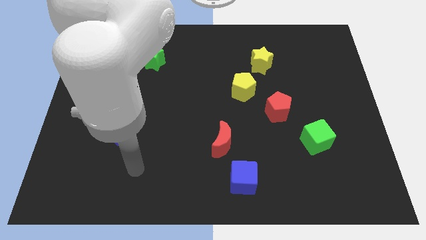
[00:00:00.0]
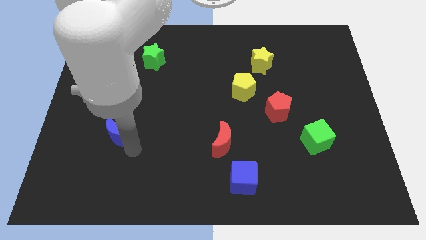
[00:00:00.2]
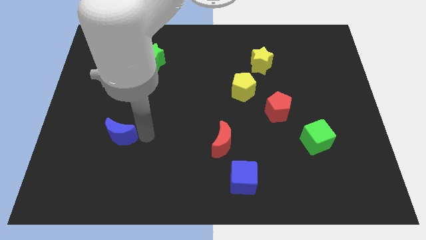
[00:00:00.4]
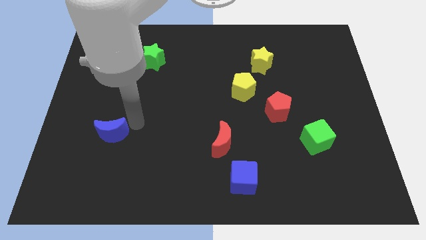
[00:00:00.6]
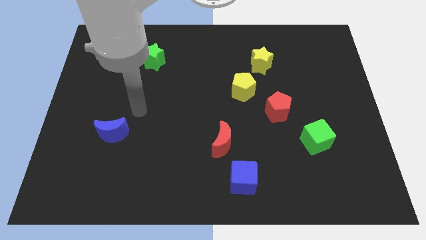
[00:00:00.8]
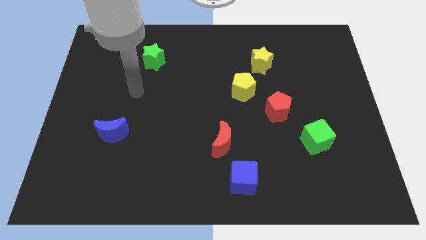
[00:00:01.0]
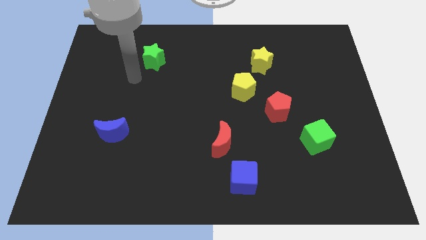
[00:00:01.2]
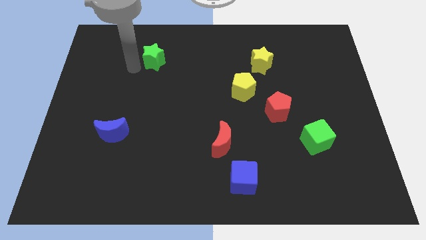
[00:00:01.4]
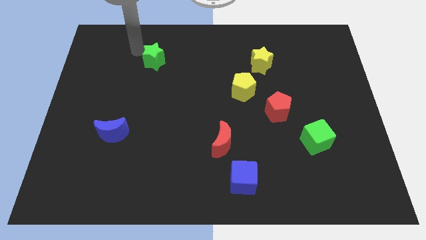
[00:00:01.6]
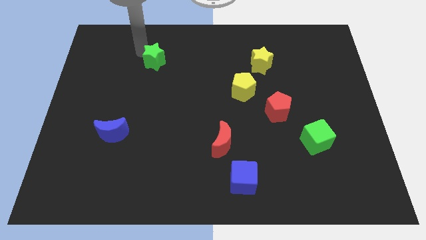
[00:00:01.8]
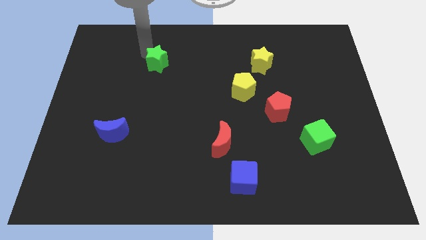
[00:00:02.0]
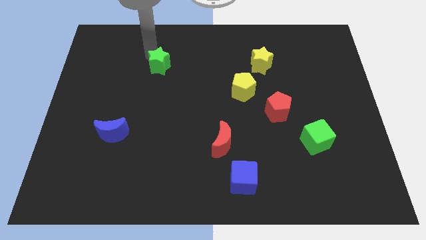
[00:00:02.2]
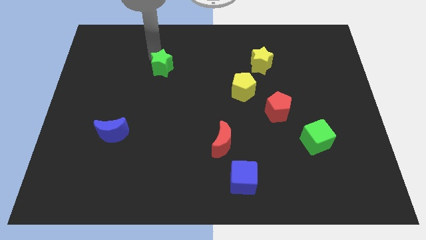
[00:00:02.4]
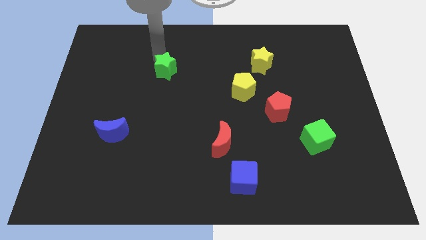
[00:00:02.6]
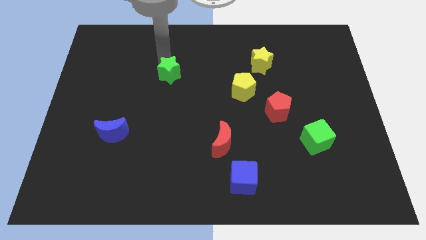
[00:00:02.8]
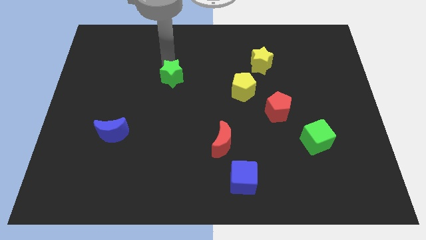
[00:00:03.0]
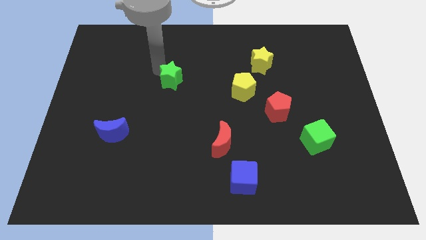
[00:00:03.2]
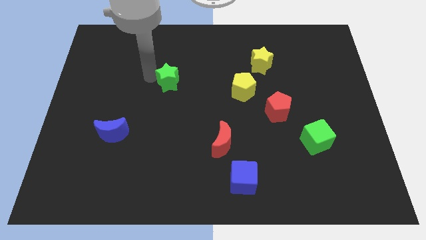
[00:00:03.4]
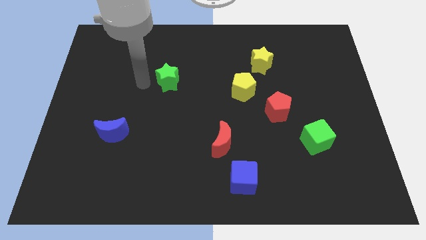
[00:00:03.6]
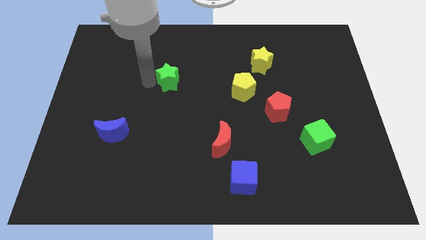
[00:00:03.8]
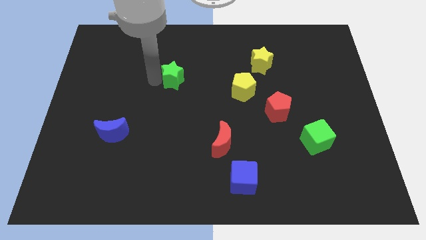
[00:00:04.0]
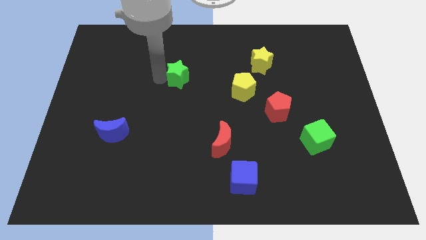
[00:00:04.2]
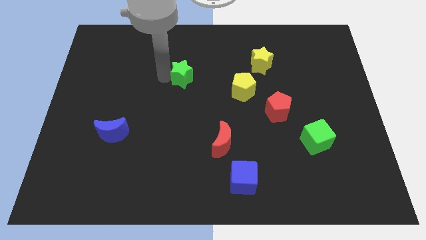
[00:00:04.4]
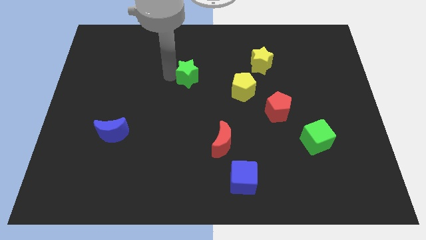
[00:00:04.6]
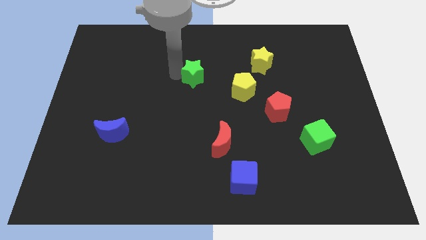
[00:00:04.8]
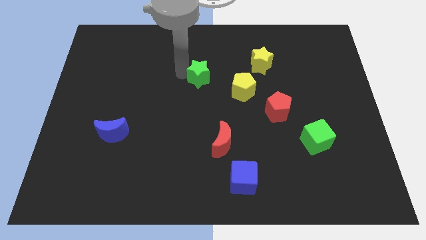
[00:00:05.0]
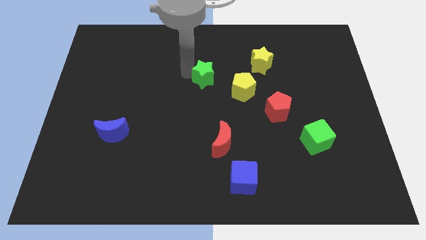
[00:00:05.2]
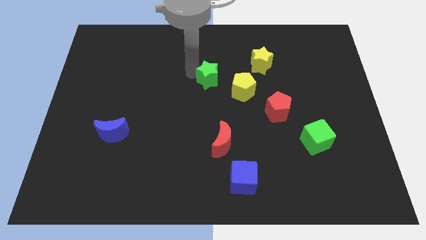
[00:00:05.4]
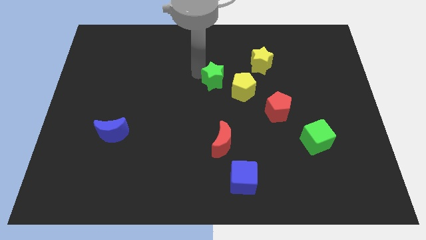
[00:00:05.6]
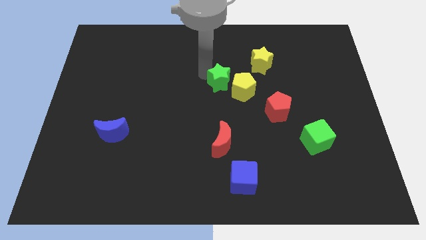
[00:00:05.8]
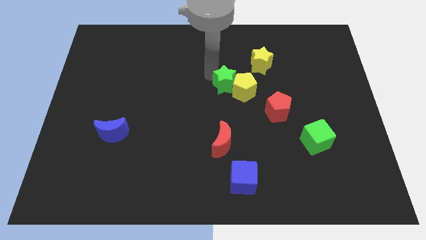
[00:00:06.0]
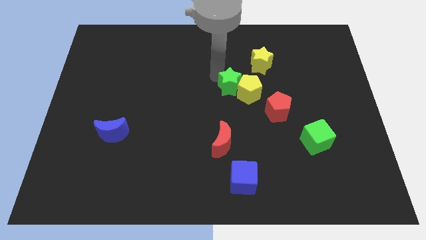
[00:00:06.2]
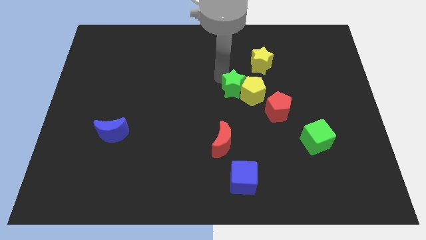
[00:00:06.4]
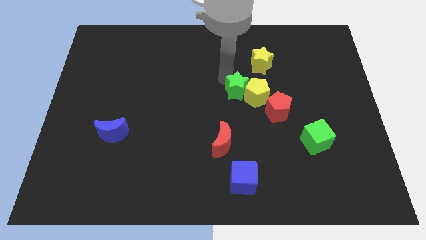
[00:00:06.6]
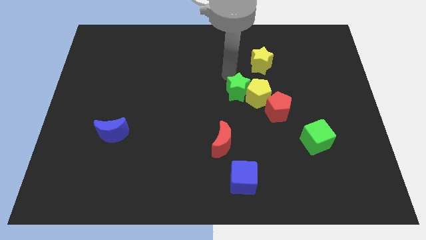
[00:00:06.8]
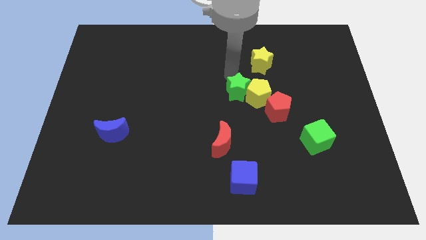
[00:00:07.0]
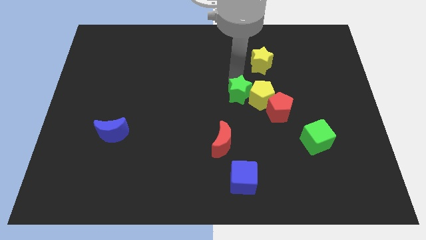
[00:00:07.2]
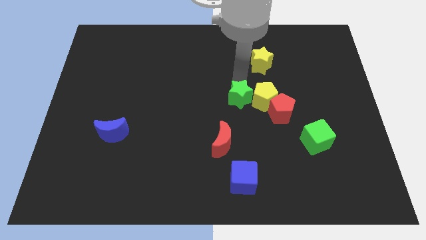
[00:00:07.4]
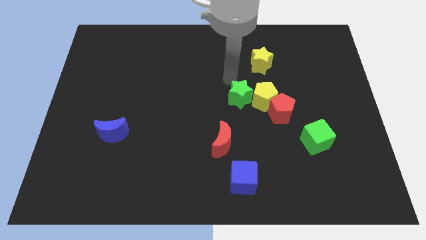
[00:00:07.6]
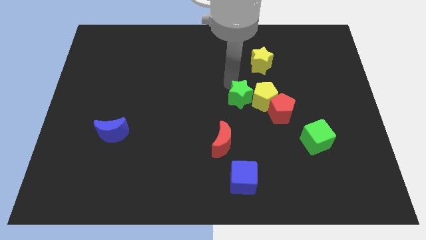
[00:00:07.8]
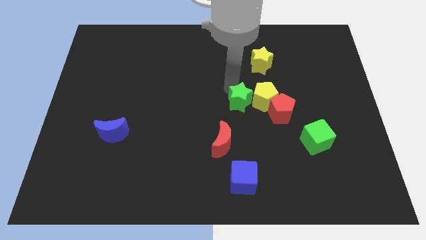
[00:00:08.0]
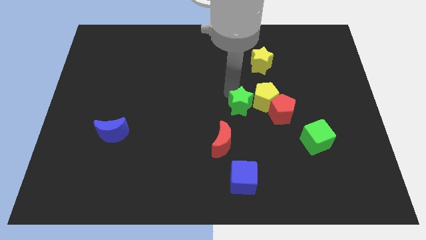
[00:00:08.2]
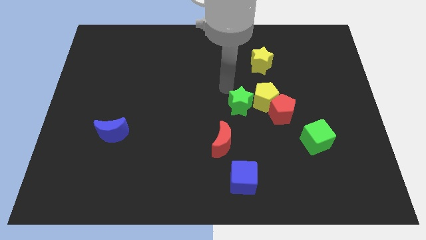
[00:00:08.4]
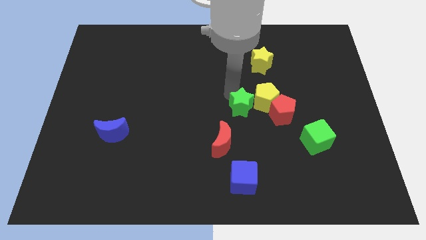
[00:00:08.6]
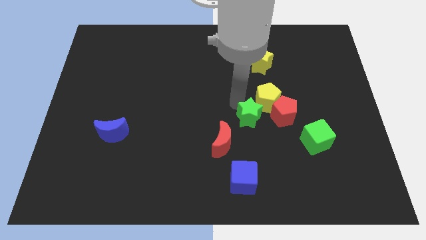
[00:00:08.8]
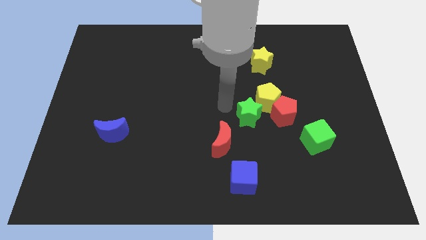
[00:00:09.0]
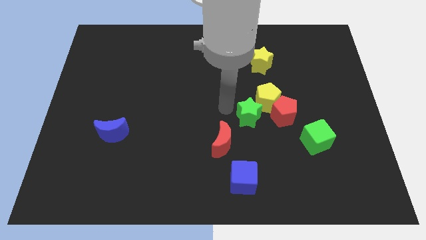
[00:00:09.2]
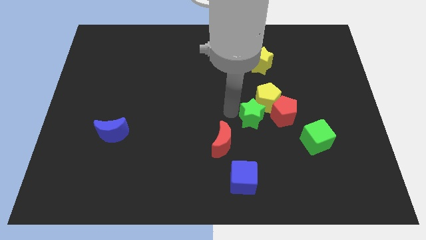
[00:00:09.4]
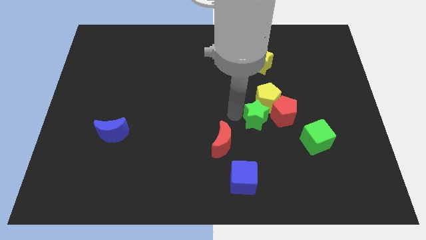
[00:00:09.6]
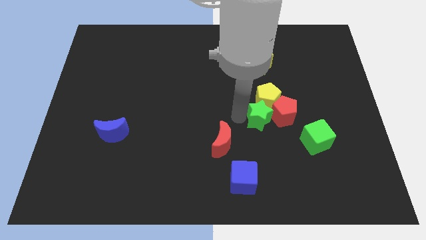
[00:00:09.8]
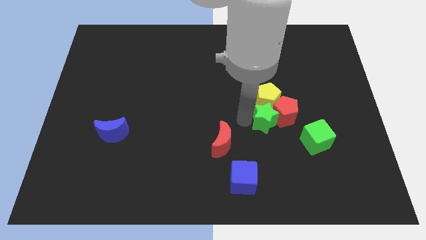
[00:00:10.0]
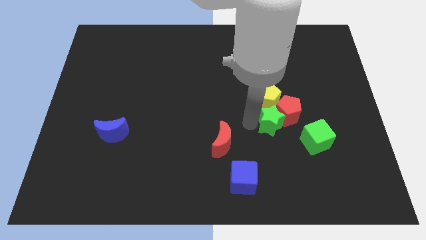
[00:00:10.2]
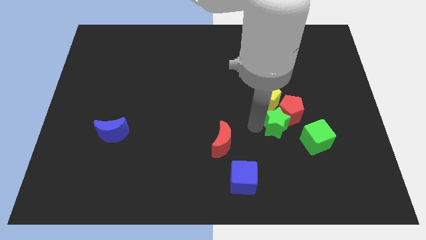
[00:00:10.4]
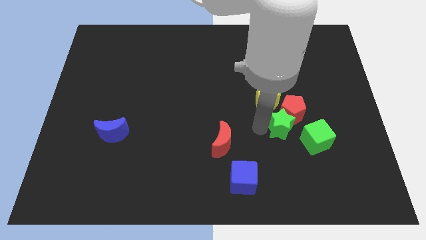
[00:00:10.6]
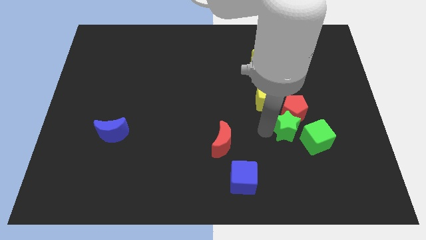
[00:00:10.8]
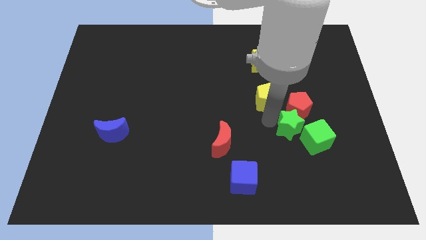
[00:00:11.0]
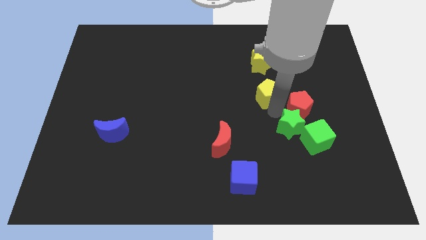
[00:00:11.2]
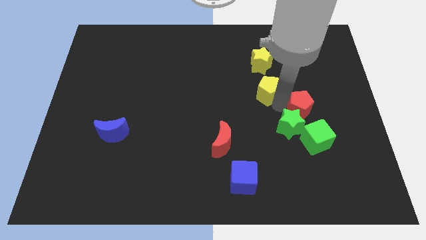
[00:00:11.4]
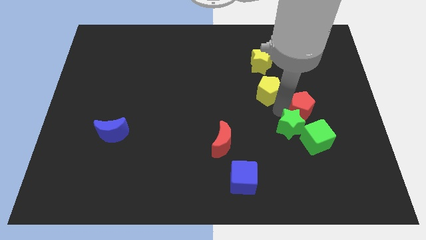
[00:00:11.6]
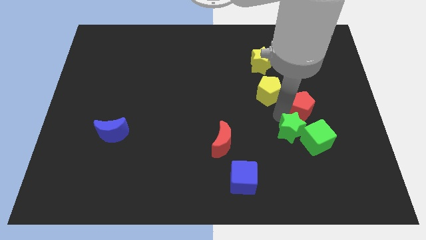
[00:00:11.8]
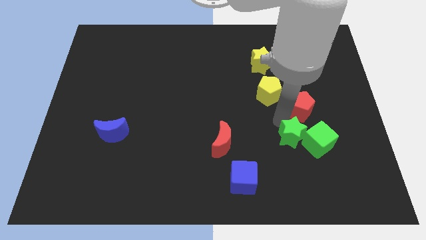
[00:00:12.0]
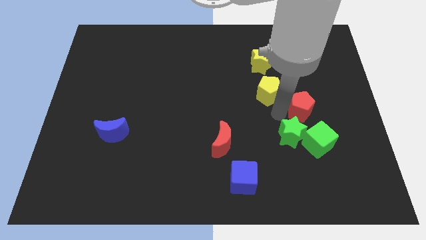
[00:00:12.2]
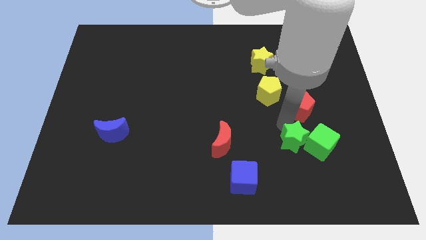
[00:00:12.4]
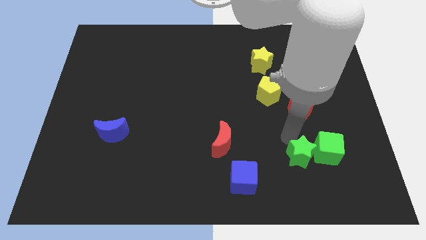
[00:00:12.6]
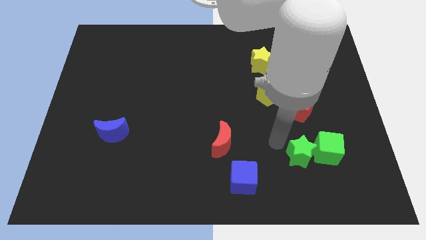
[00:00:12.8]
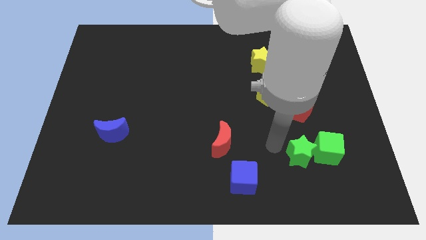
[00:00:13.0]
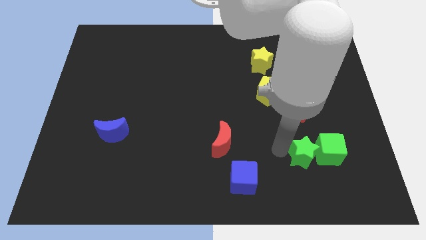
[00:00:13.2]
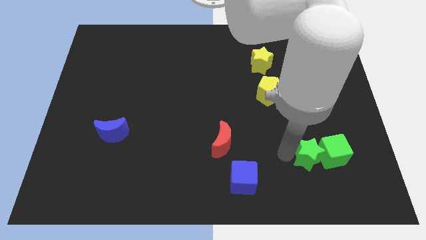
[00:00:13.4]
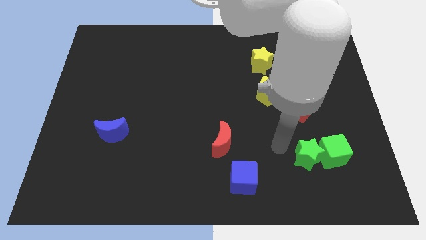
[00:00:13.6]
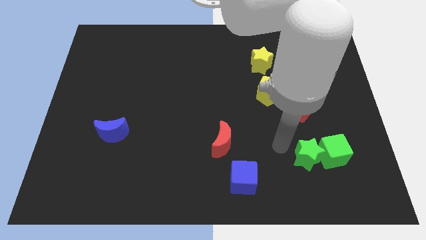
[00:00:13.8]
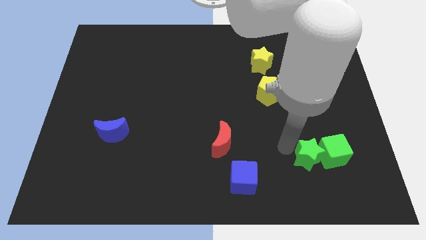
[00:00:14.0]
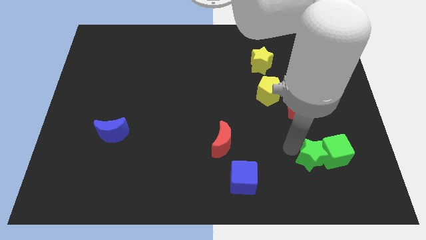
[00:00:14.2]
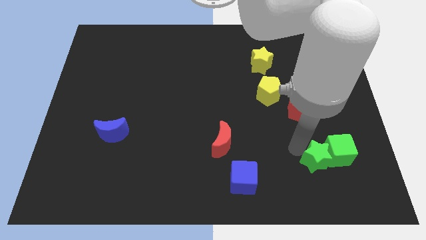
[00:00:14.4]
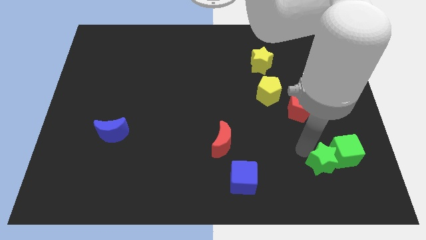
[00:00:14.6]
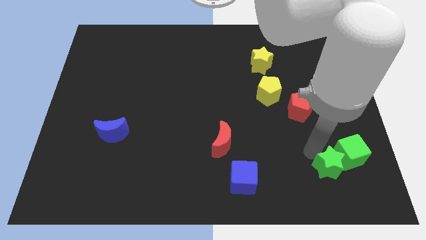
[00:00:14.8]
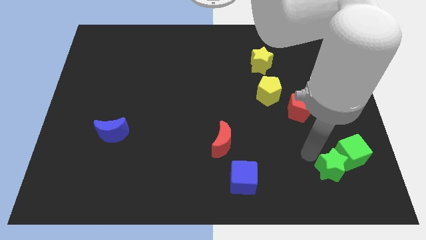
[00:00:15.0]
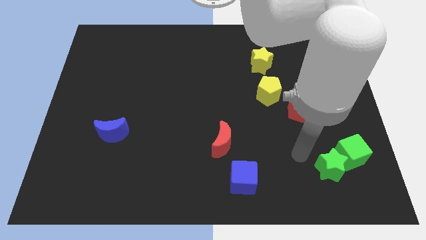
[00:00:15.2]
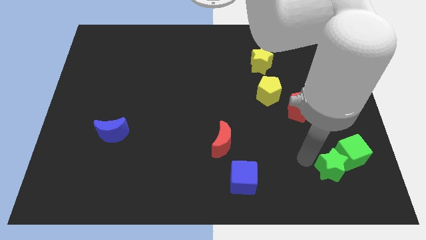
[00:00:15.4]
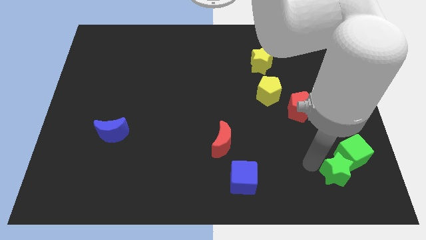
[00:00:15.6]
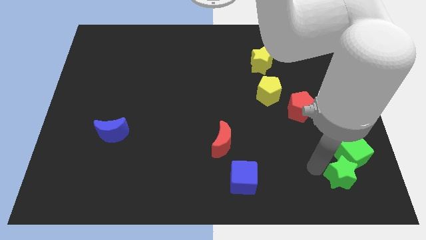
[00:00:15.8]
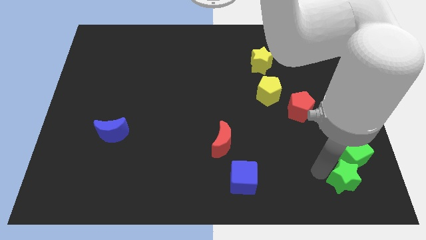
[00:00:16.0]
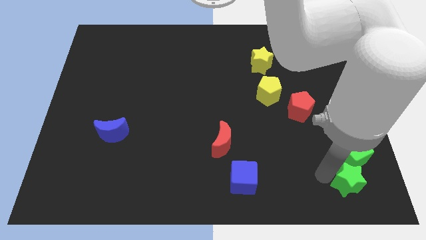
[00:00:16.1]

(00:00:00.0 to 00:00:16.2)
slide the green star to the bottom right corner
